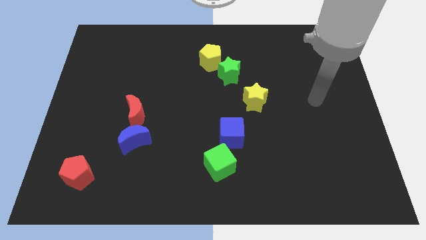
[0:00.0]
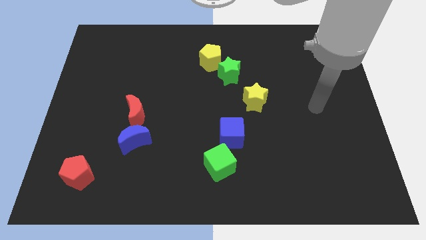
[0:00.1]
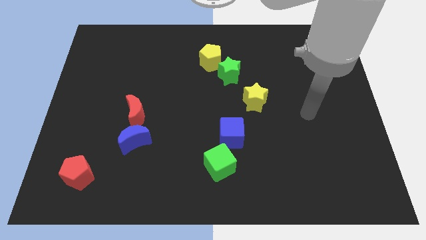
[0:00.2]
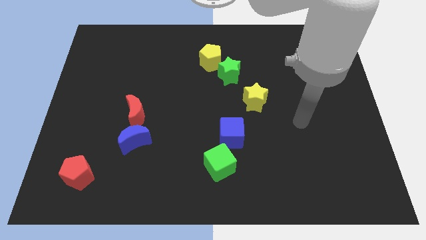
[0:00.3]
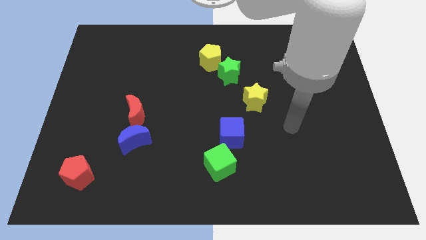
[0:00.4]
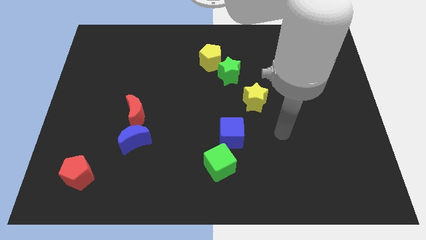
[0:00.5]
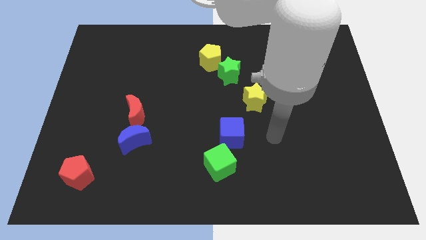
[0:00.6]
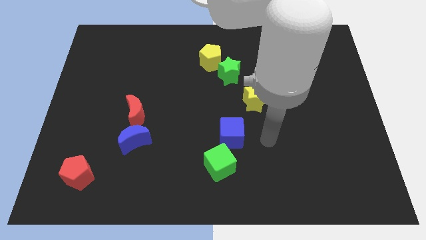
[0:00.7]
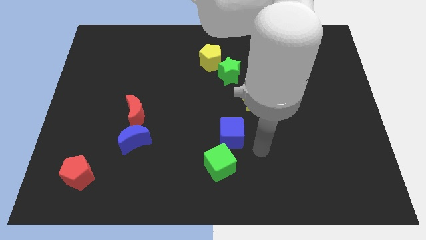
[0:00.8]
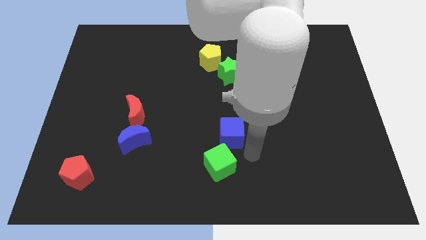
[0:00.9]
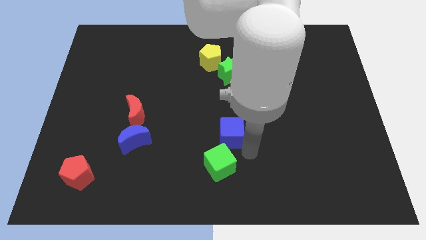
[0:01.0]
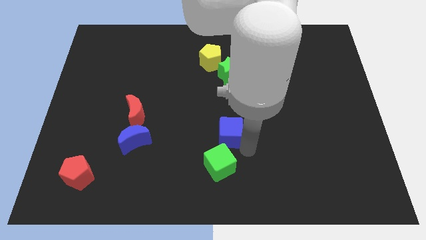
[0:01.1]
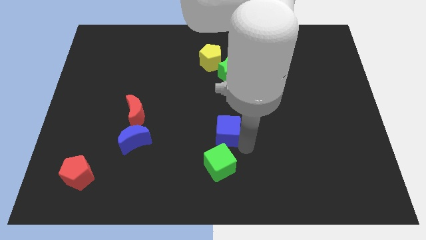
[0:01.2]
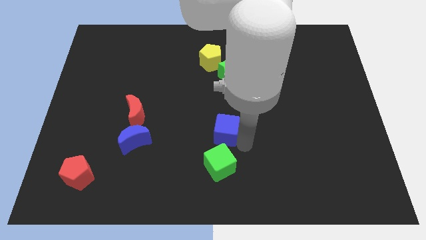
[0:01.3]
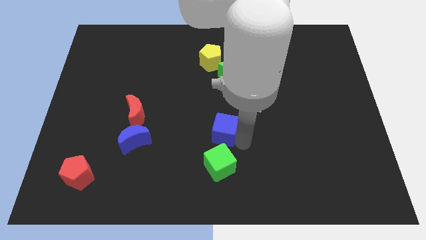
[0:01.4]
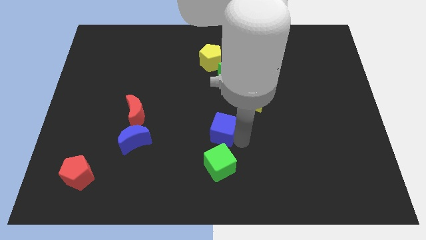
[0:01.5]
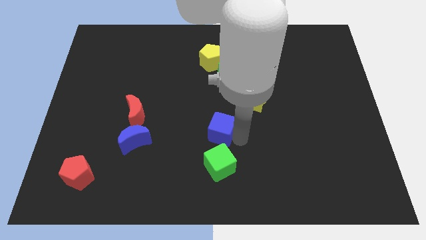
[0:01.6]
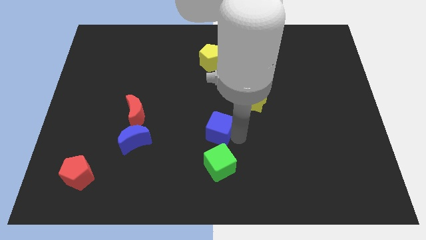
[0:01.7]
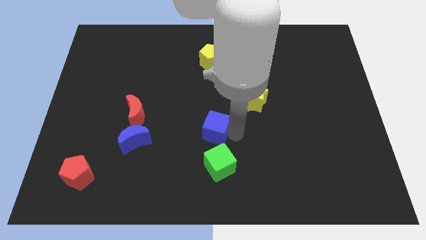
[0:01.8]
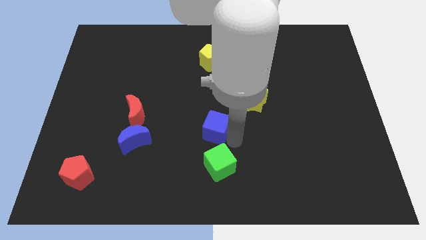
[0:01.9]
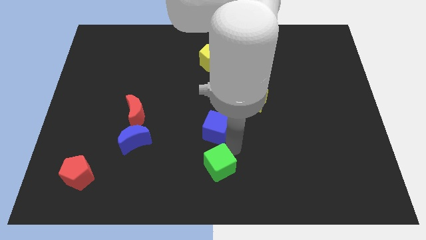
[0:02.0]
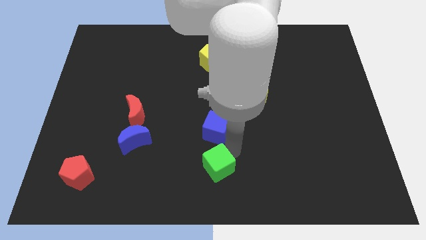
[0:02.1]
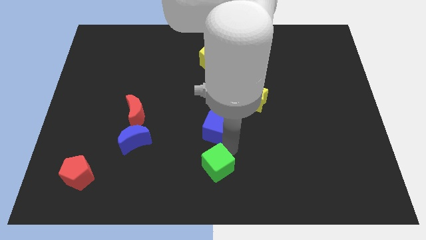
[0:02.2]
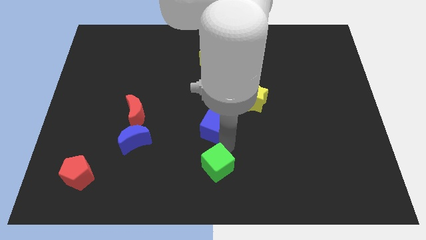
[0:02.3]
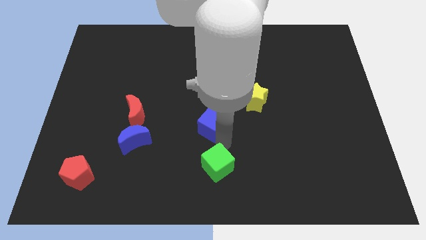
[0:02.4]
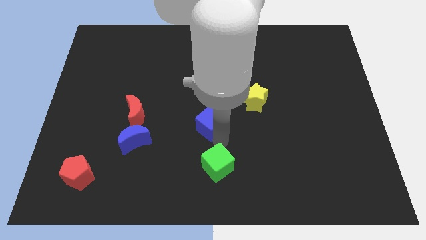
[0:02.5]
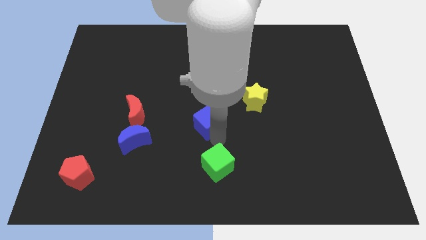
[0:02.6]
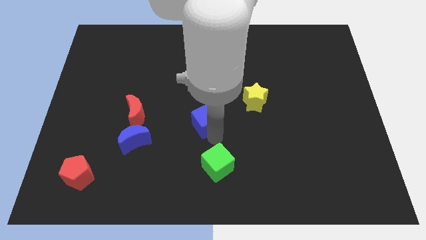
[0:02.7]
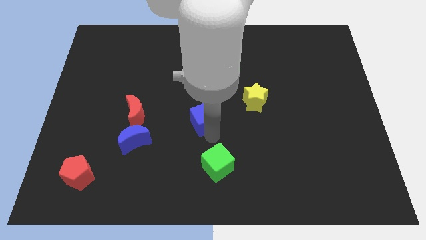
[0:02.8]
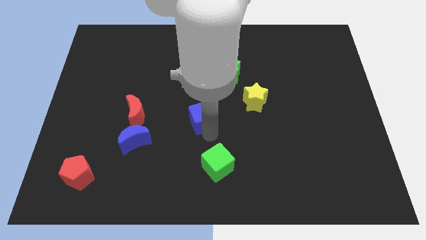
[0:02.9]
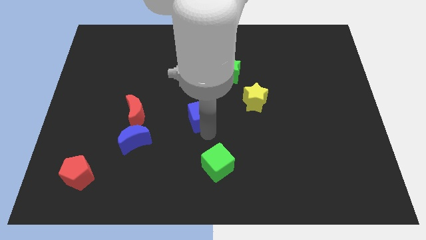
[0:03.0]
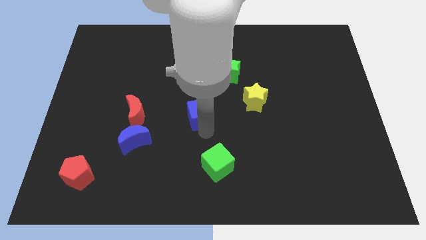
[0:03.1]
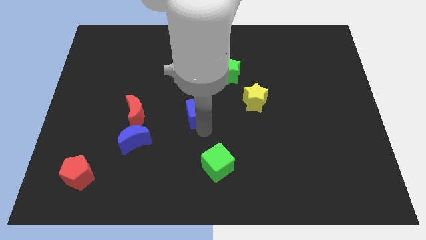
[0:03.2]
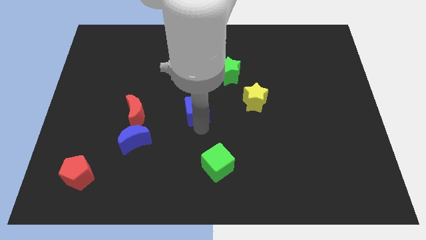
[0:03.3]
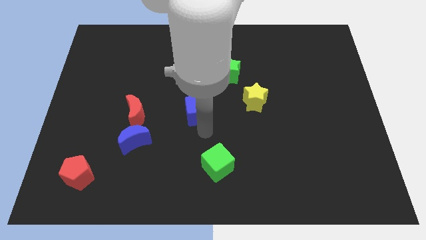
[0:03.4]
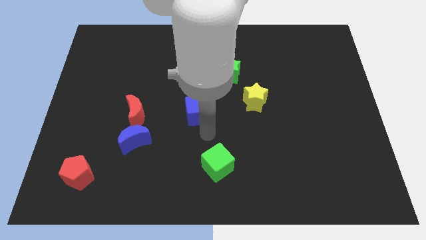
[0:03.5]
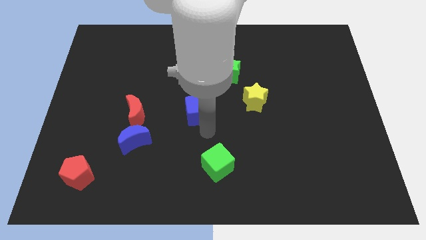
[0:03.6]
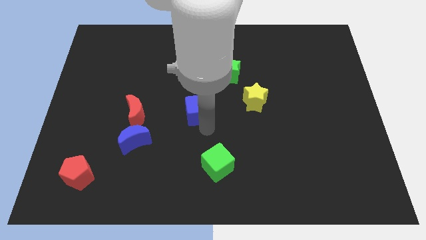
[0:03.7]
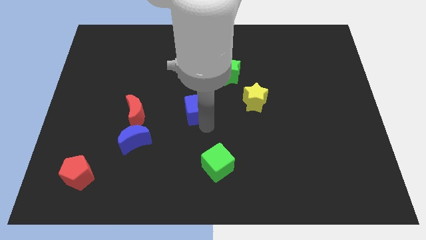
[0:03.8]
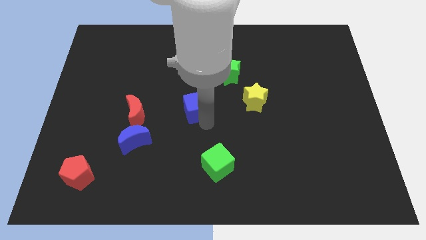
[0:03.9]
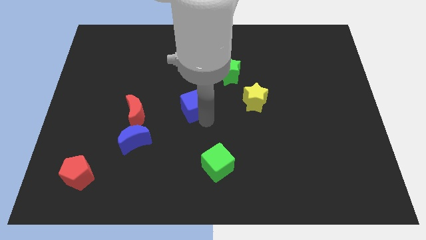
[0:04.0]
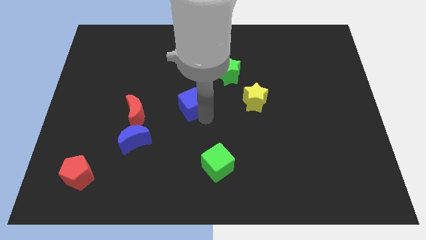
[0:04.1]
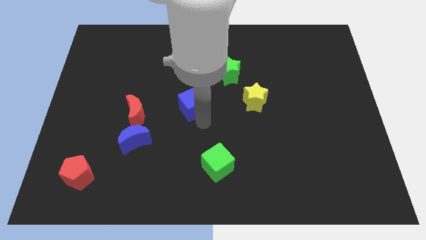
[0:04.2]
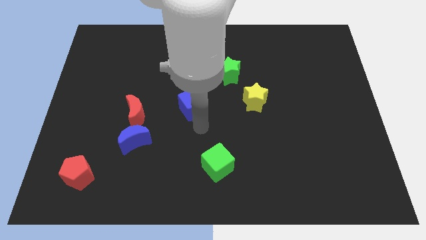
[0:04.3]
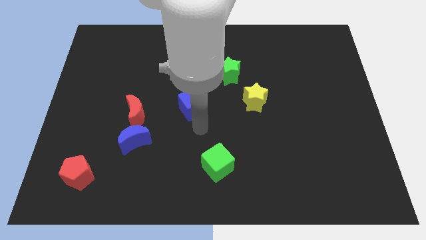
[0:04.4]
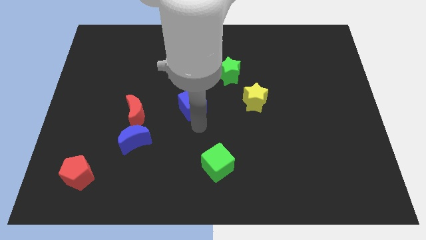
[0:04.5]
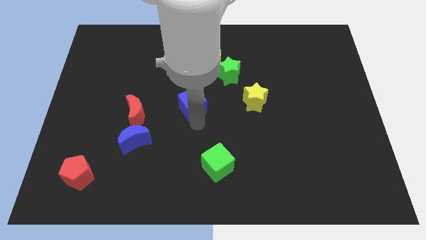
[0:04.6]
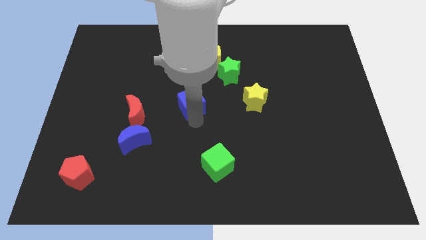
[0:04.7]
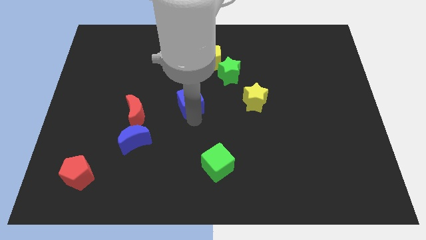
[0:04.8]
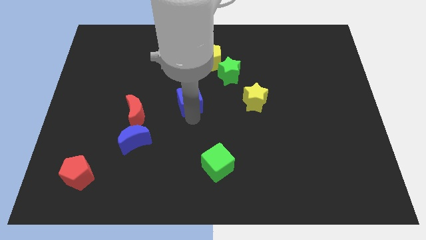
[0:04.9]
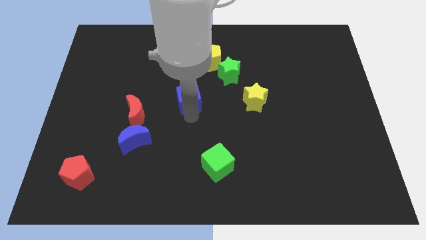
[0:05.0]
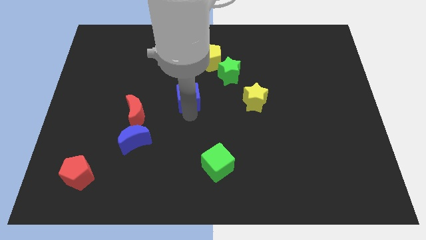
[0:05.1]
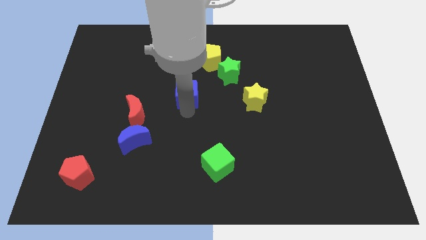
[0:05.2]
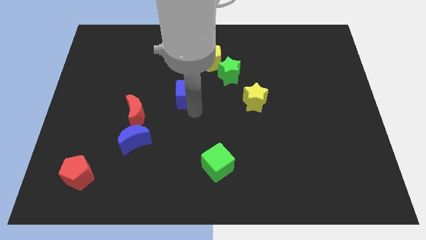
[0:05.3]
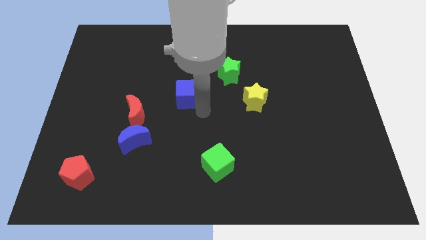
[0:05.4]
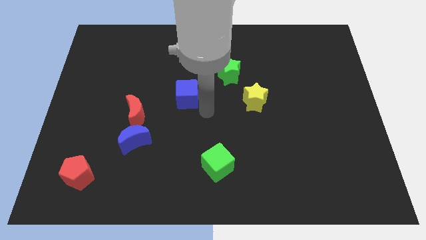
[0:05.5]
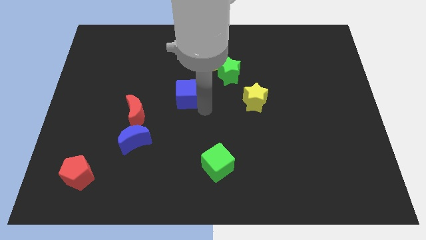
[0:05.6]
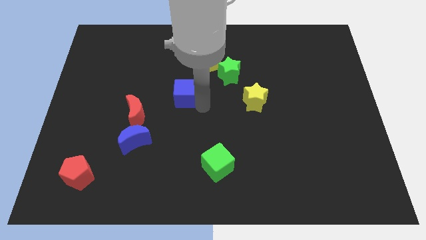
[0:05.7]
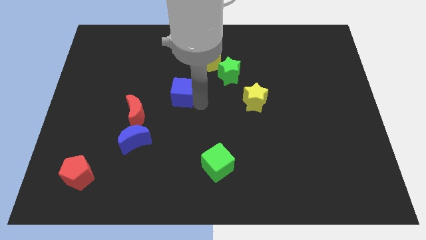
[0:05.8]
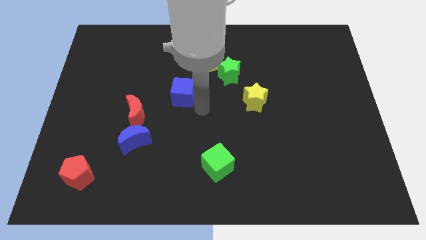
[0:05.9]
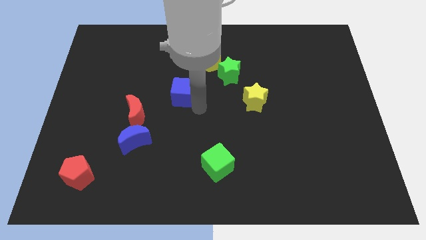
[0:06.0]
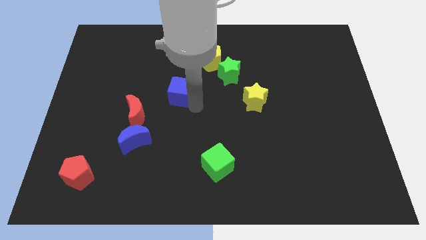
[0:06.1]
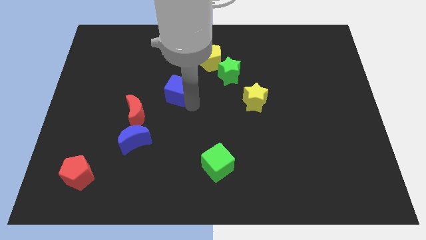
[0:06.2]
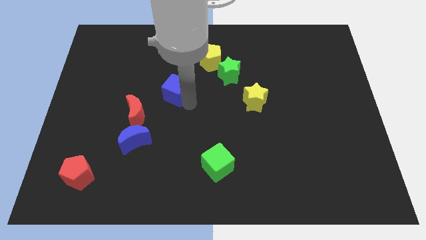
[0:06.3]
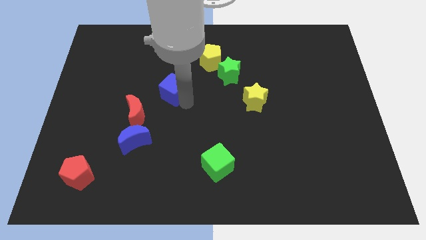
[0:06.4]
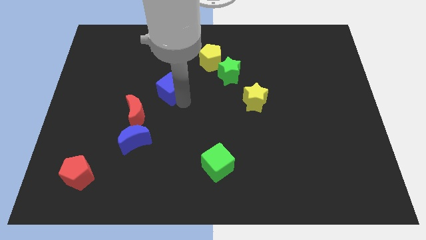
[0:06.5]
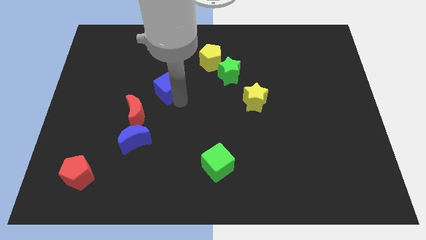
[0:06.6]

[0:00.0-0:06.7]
push the blue cube upwards and left

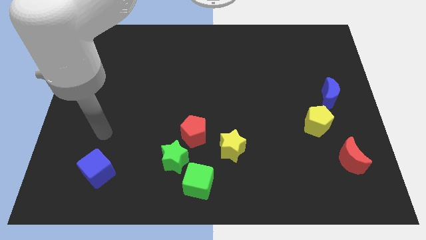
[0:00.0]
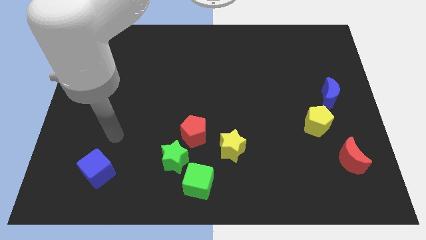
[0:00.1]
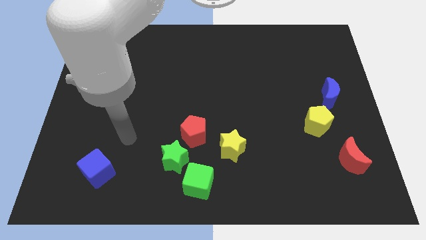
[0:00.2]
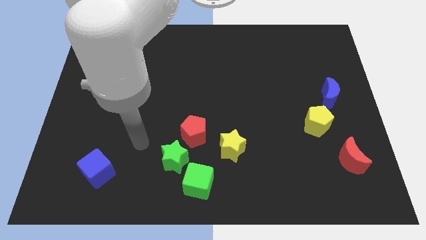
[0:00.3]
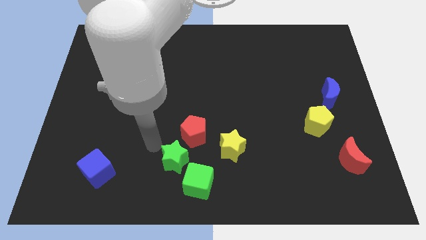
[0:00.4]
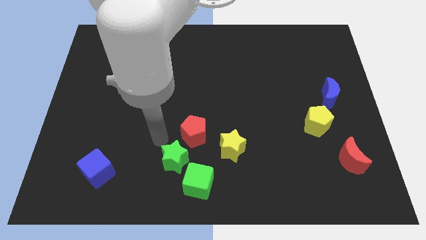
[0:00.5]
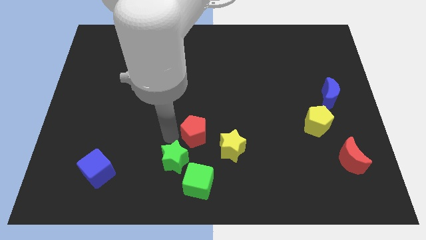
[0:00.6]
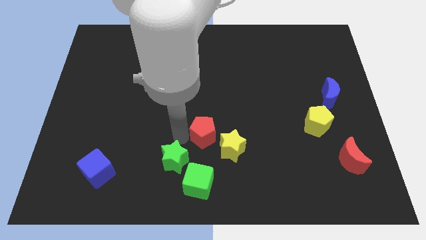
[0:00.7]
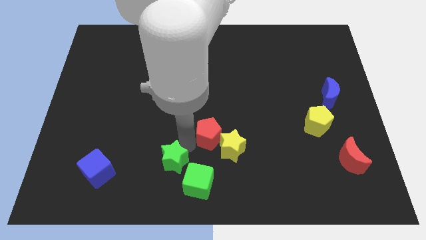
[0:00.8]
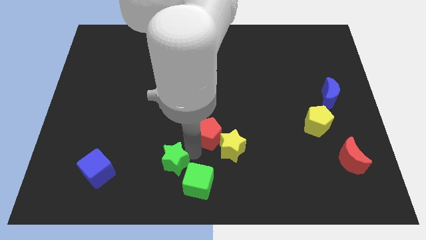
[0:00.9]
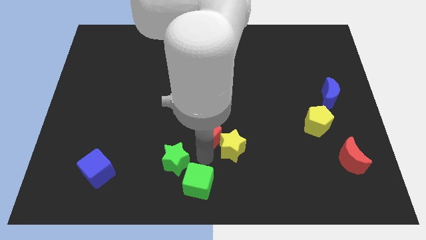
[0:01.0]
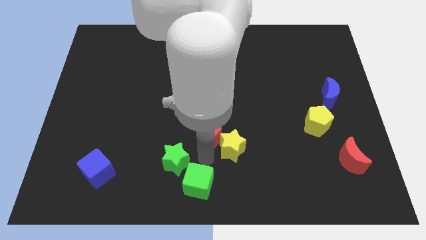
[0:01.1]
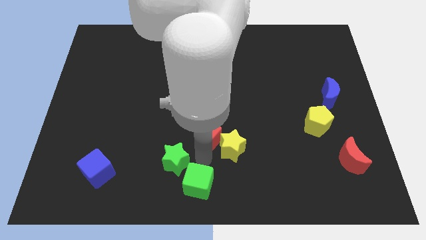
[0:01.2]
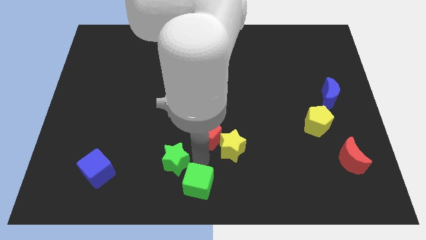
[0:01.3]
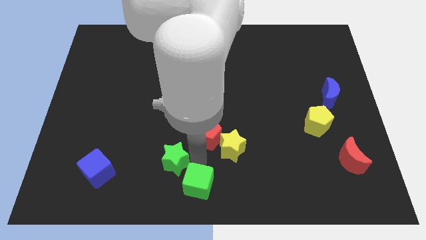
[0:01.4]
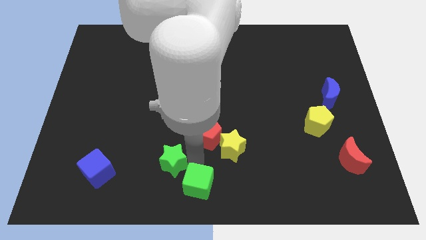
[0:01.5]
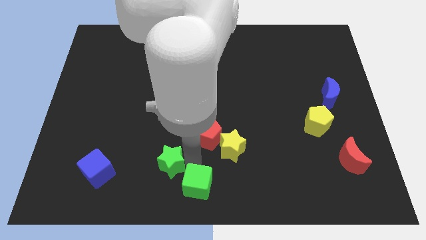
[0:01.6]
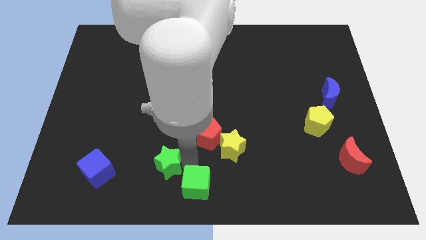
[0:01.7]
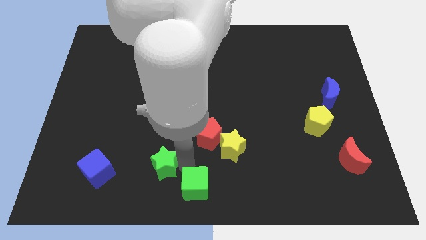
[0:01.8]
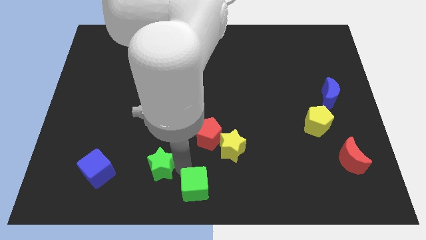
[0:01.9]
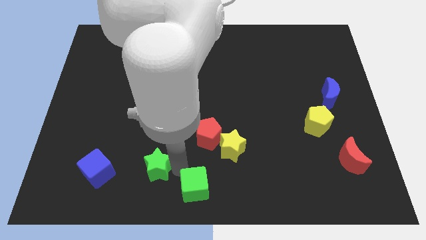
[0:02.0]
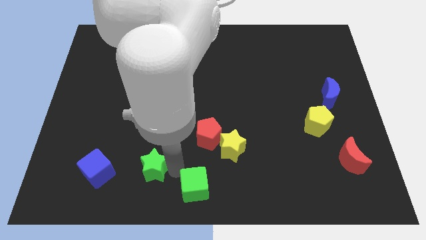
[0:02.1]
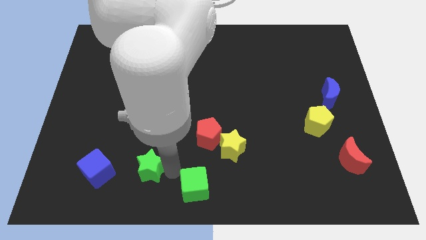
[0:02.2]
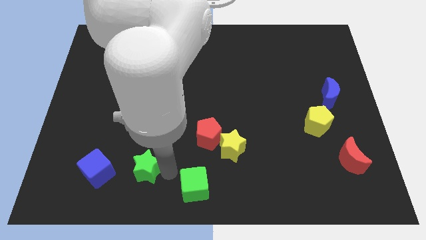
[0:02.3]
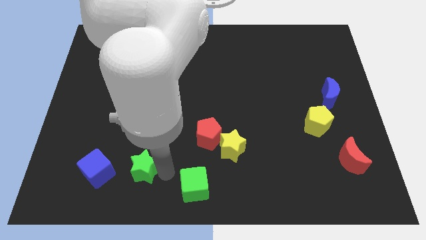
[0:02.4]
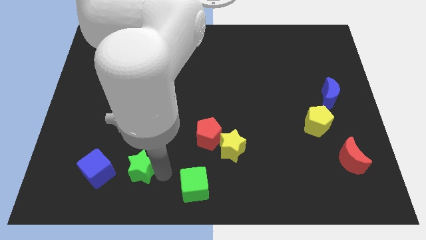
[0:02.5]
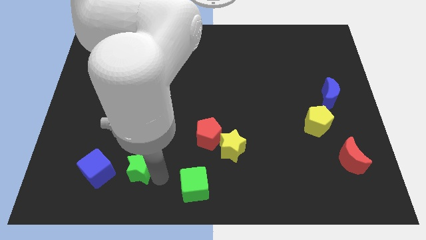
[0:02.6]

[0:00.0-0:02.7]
move the green star left slightly
